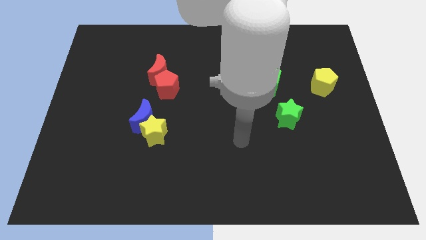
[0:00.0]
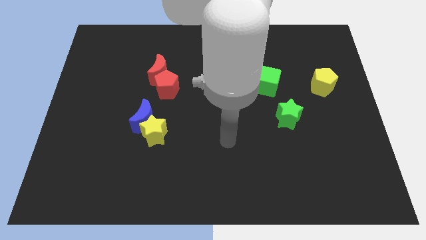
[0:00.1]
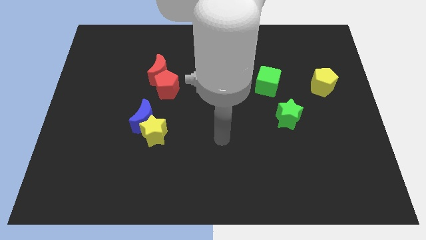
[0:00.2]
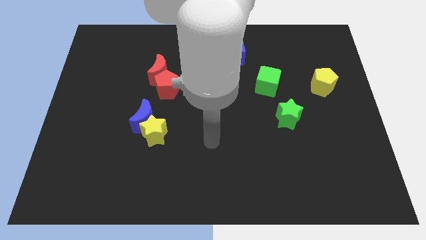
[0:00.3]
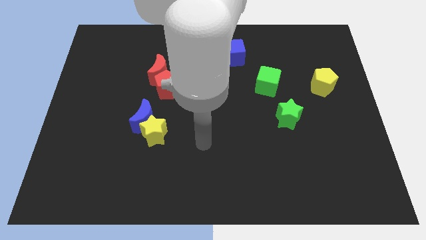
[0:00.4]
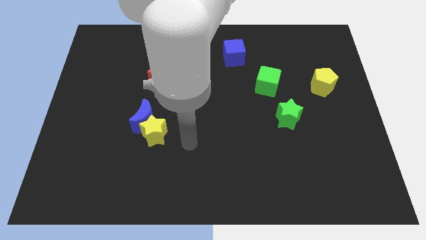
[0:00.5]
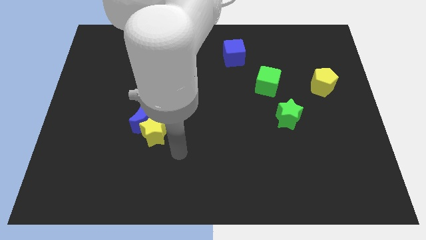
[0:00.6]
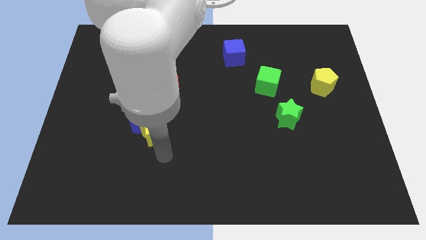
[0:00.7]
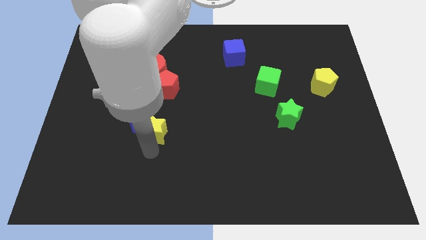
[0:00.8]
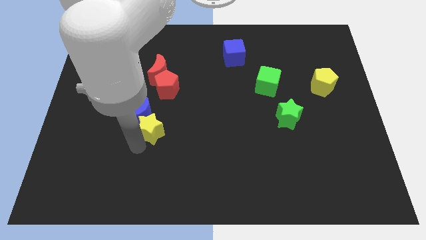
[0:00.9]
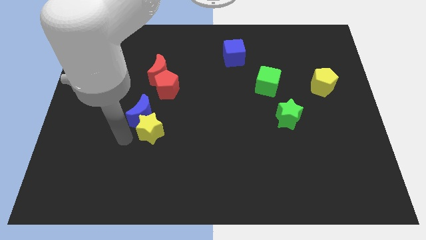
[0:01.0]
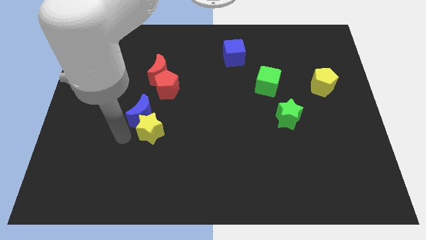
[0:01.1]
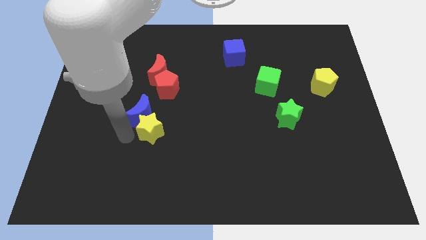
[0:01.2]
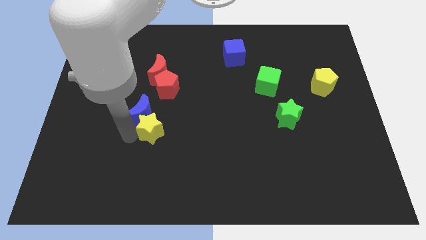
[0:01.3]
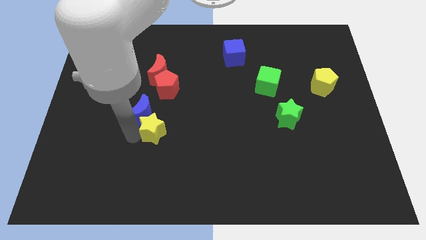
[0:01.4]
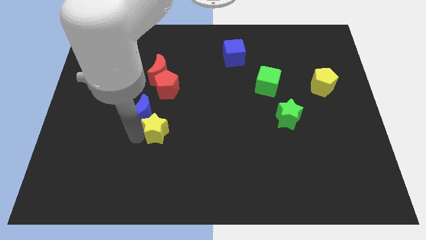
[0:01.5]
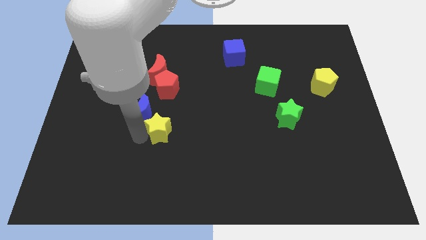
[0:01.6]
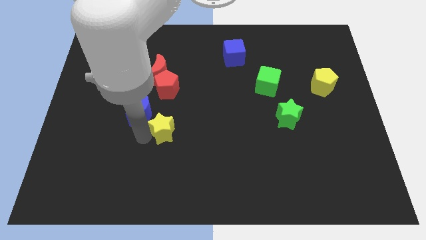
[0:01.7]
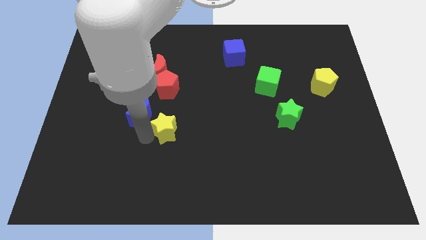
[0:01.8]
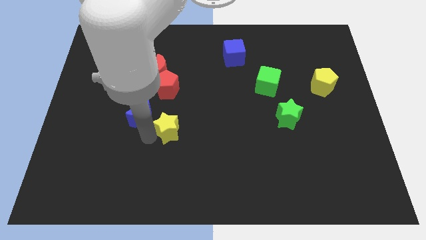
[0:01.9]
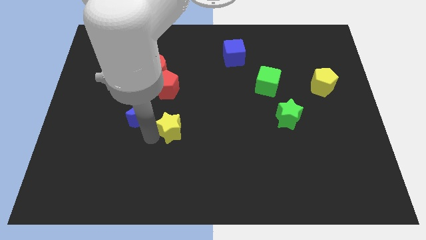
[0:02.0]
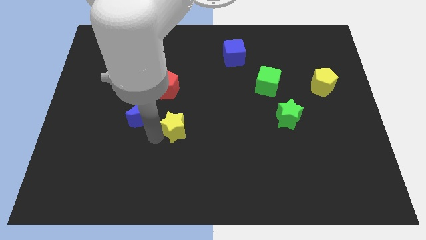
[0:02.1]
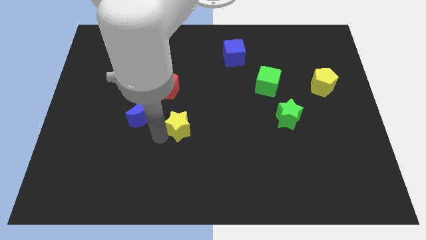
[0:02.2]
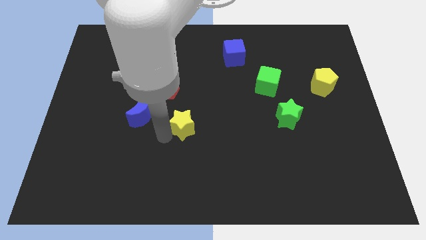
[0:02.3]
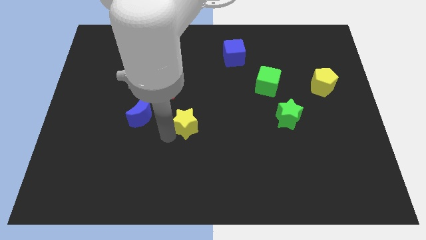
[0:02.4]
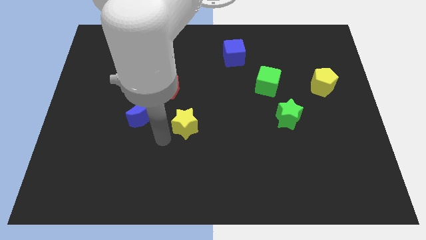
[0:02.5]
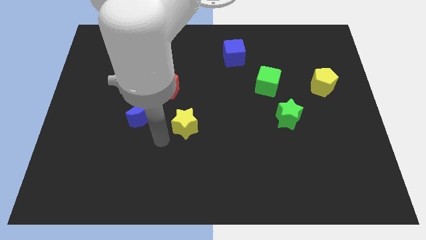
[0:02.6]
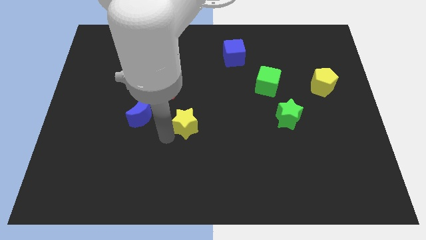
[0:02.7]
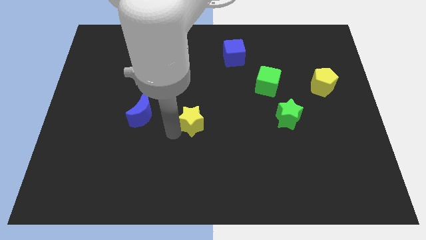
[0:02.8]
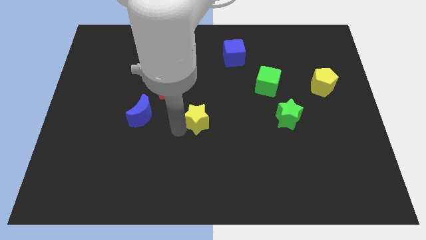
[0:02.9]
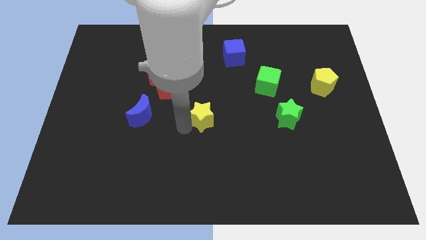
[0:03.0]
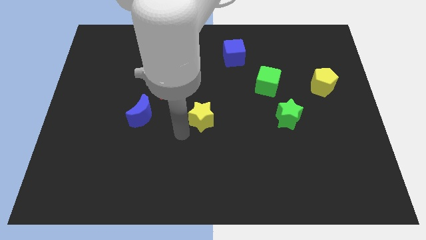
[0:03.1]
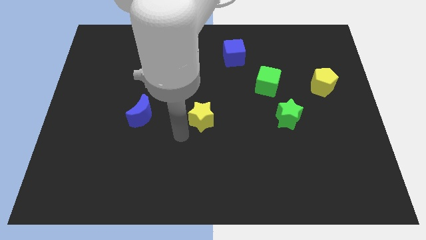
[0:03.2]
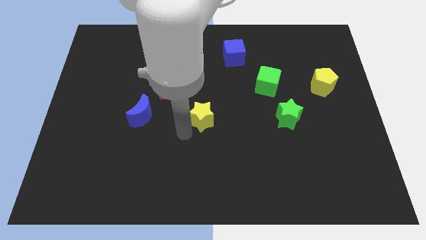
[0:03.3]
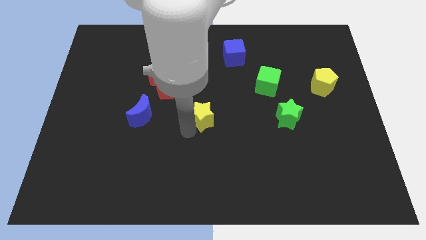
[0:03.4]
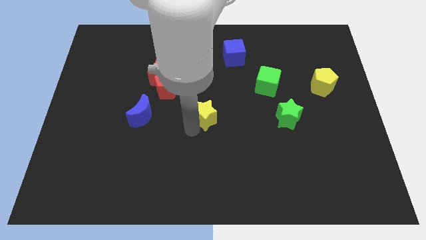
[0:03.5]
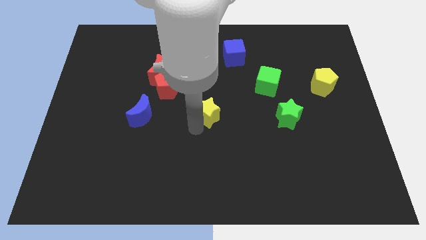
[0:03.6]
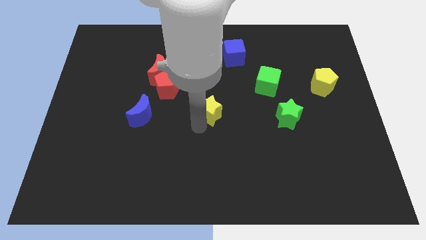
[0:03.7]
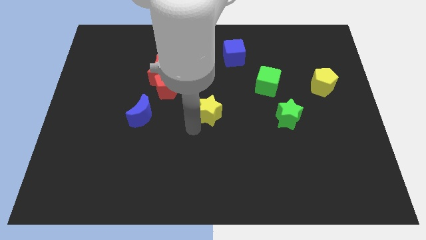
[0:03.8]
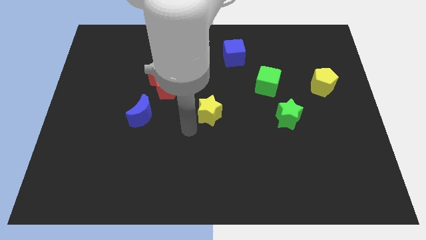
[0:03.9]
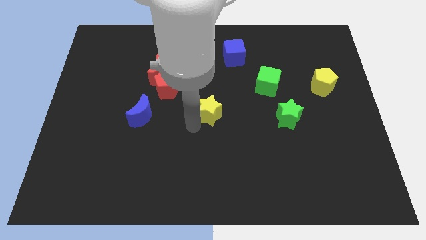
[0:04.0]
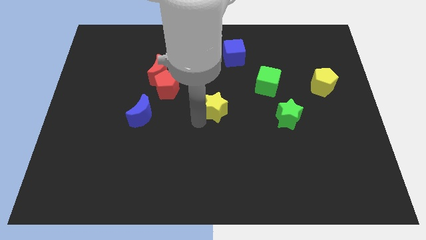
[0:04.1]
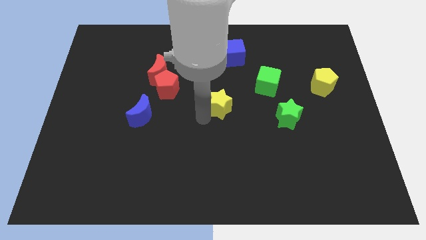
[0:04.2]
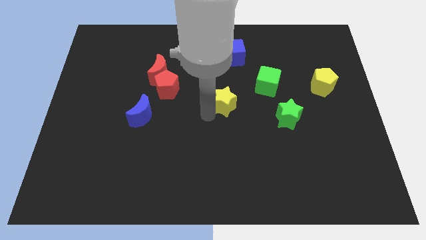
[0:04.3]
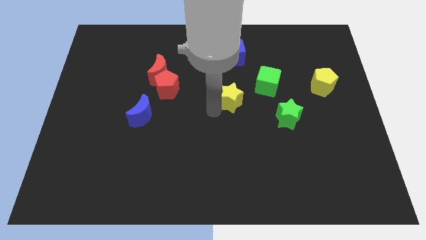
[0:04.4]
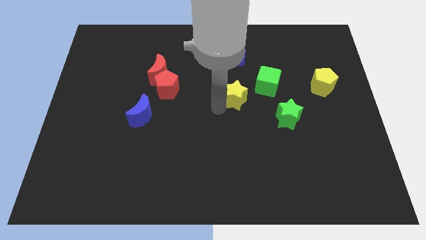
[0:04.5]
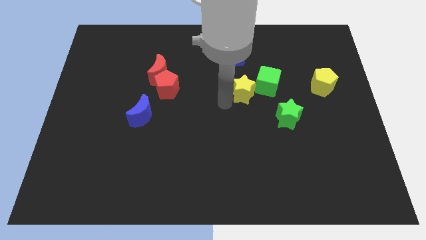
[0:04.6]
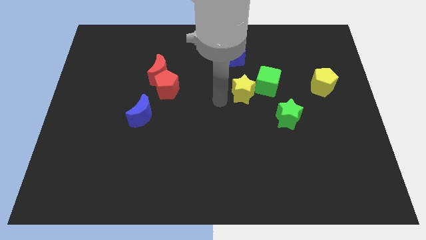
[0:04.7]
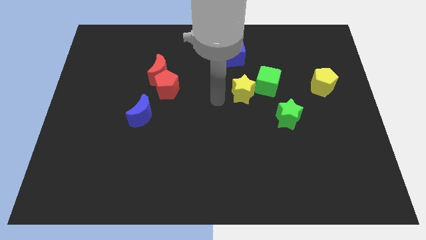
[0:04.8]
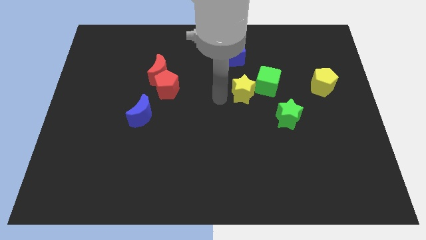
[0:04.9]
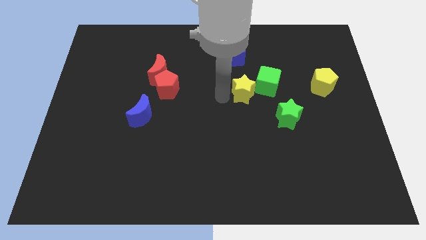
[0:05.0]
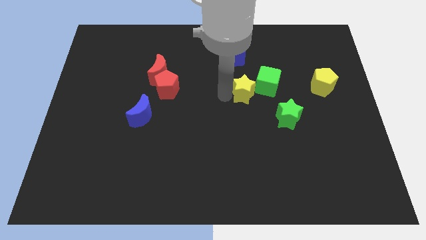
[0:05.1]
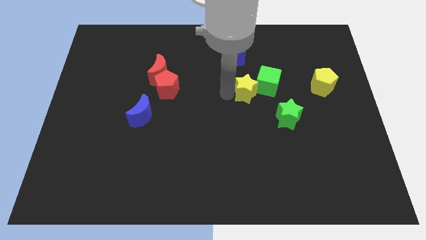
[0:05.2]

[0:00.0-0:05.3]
put the yellow star next to the green cube

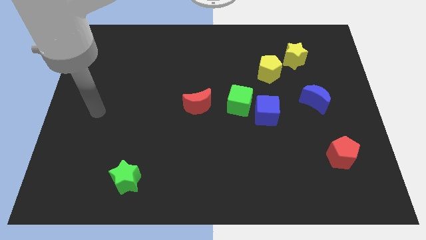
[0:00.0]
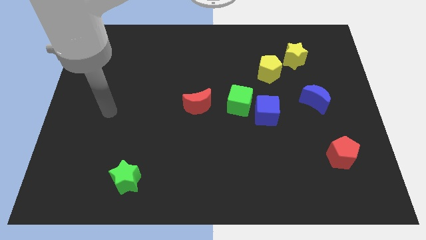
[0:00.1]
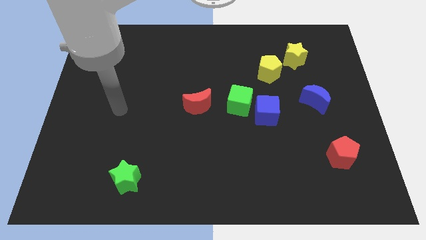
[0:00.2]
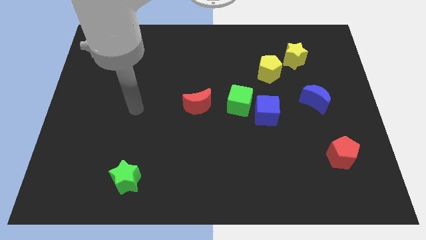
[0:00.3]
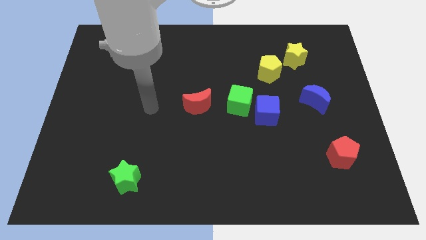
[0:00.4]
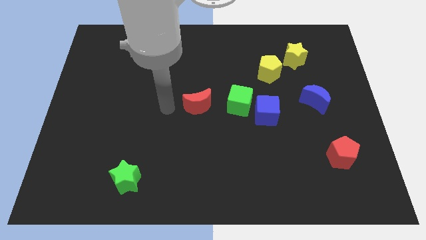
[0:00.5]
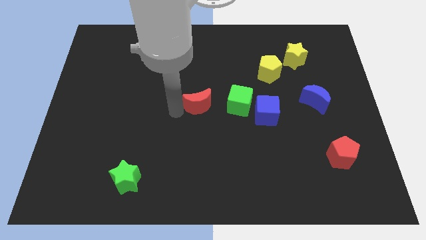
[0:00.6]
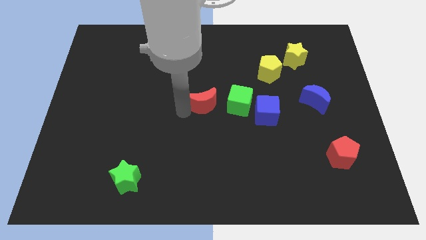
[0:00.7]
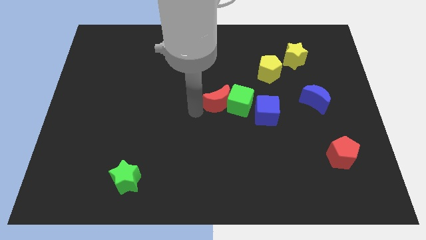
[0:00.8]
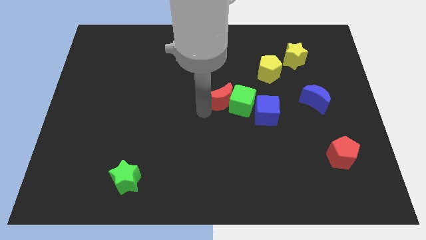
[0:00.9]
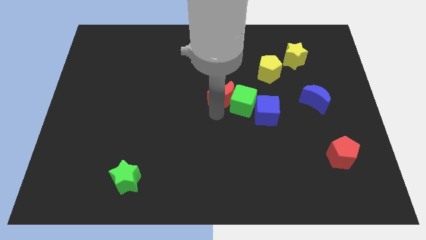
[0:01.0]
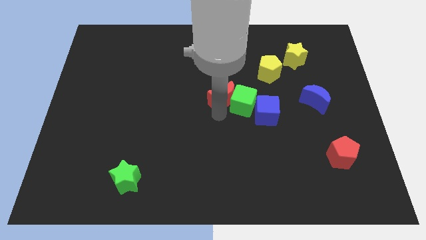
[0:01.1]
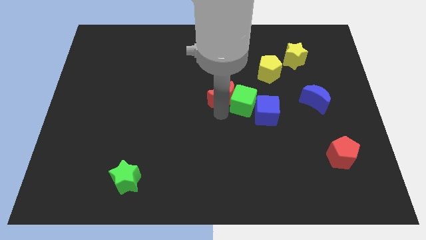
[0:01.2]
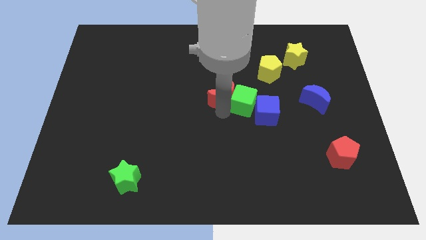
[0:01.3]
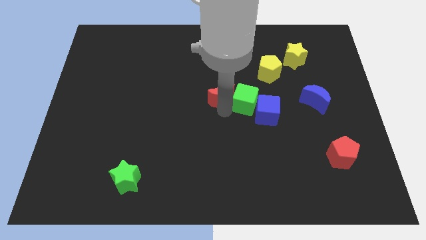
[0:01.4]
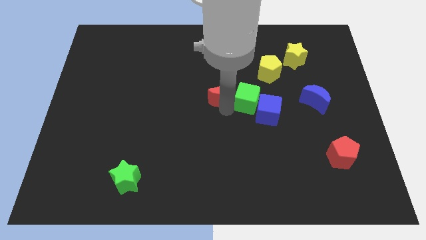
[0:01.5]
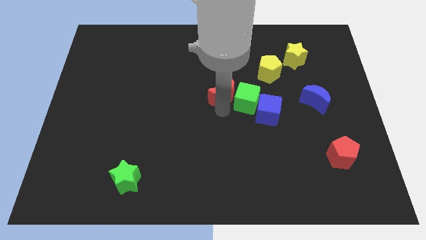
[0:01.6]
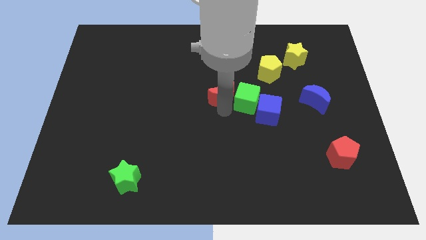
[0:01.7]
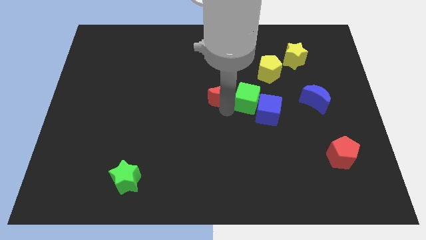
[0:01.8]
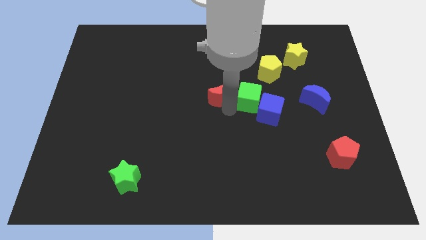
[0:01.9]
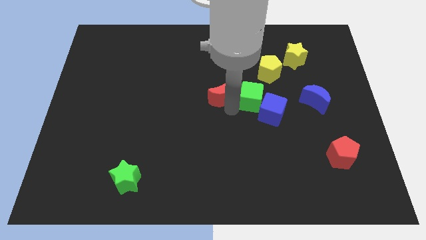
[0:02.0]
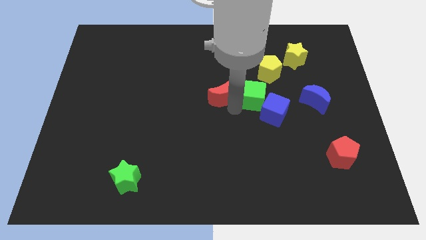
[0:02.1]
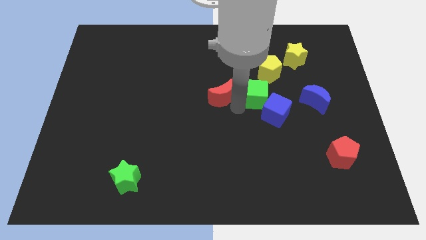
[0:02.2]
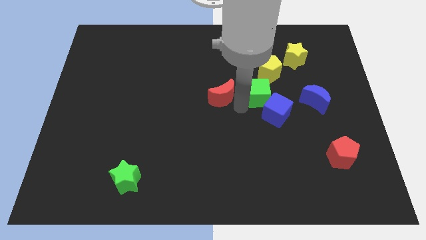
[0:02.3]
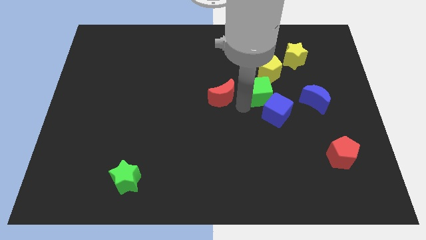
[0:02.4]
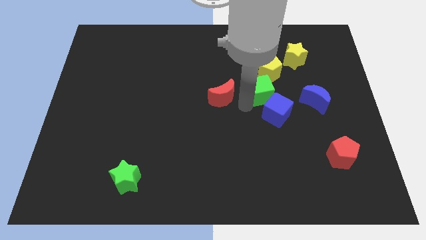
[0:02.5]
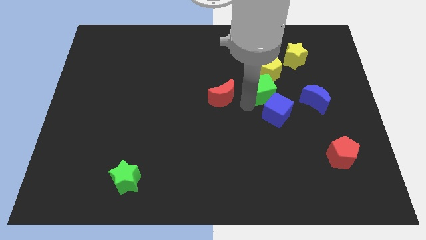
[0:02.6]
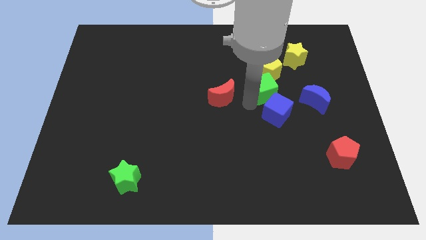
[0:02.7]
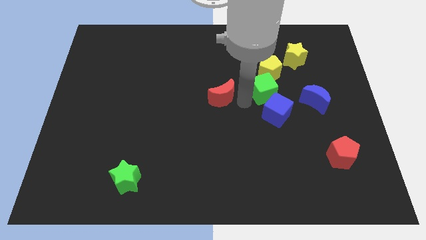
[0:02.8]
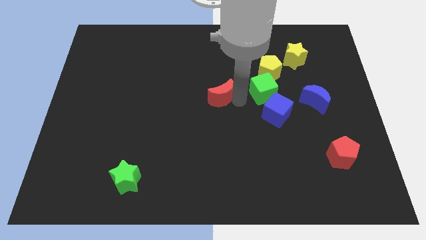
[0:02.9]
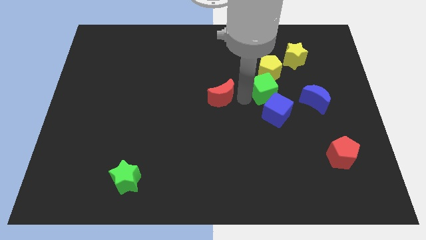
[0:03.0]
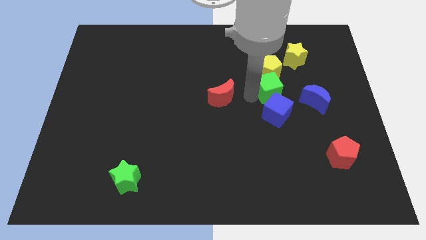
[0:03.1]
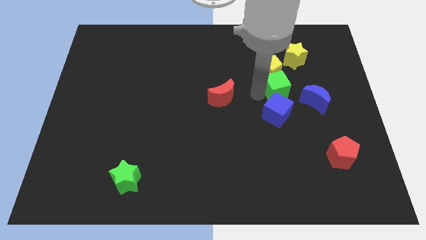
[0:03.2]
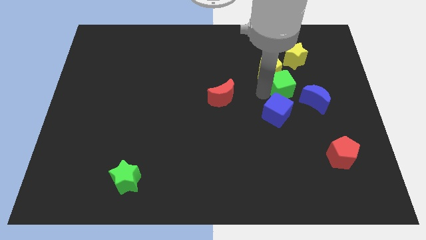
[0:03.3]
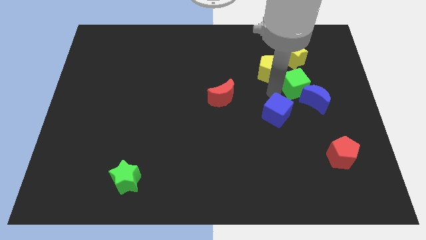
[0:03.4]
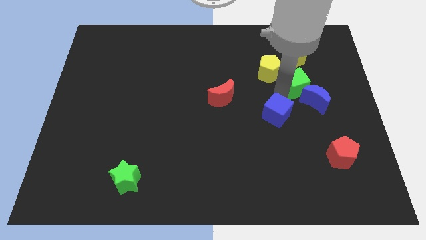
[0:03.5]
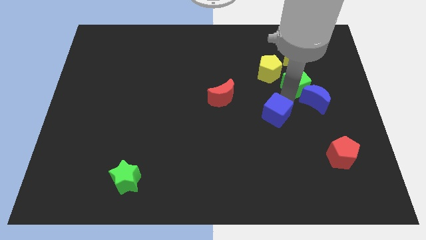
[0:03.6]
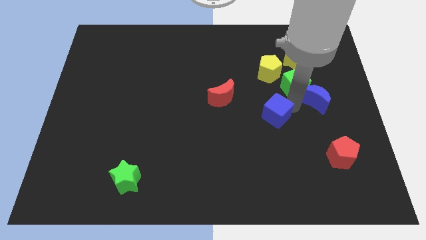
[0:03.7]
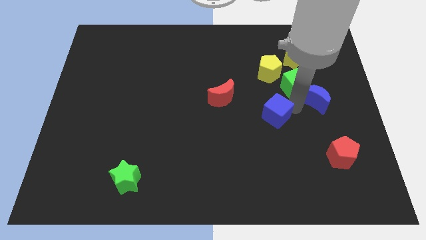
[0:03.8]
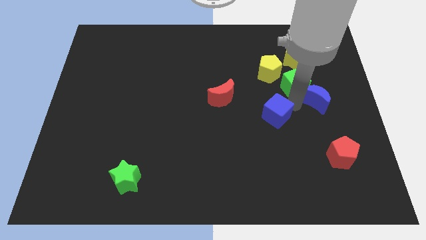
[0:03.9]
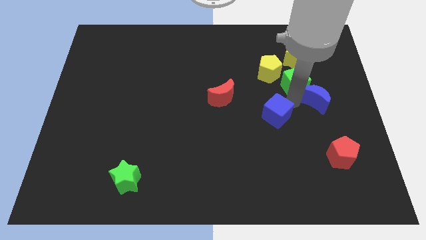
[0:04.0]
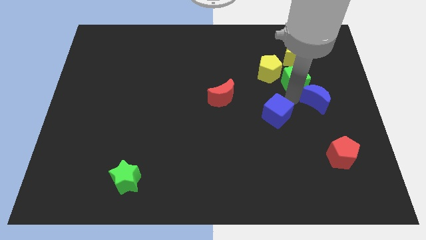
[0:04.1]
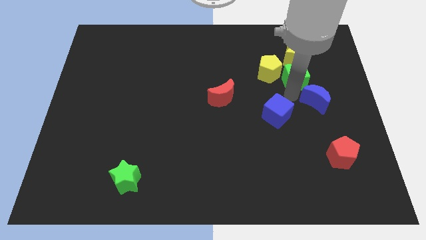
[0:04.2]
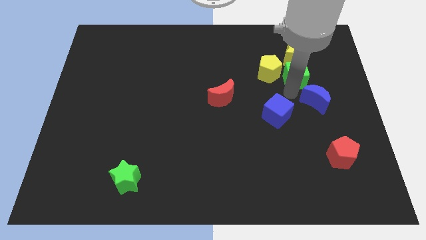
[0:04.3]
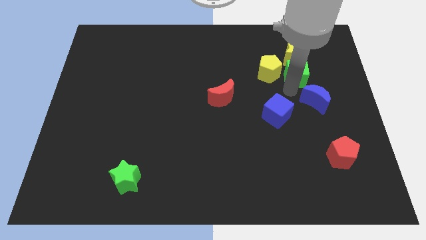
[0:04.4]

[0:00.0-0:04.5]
slide the green cube towards the yellow star
